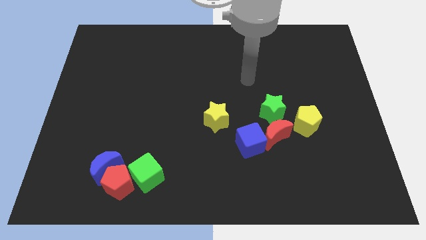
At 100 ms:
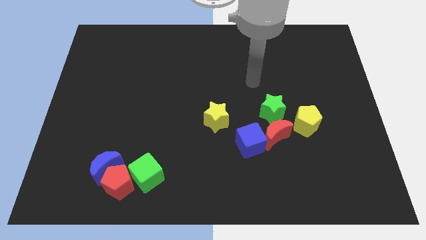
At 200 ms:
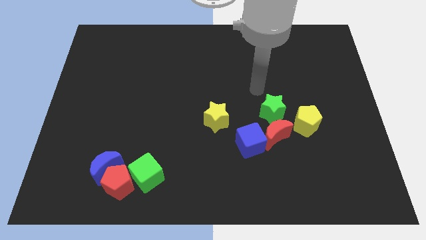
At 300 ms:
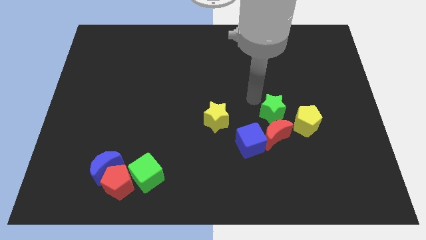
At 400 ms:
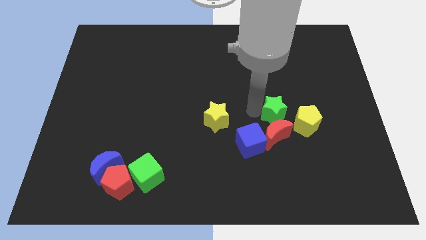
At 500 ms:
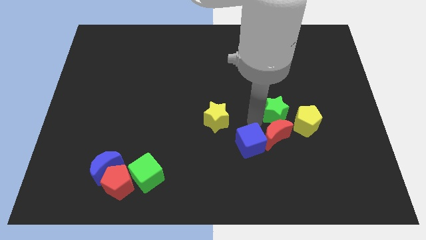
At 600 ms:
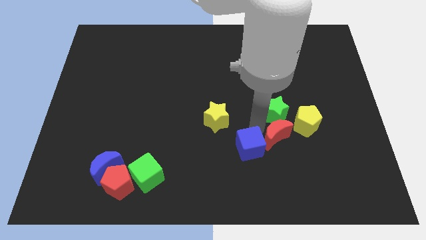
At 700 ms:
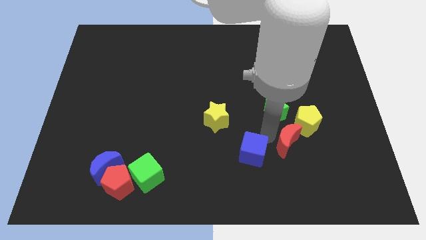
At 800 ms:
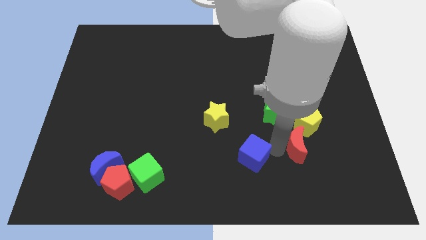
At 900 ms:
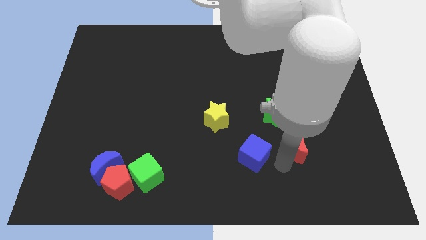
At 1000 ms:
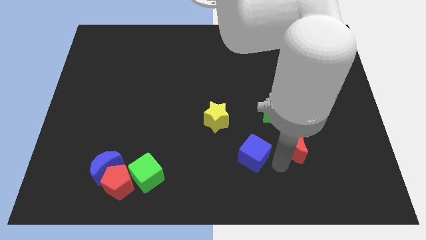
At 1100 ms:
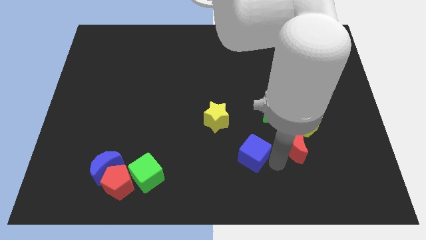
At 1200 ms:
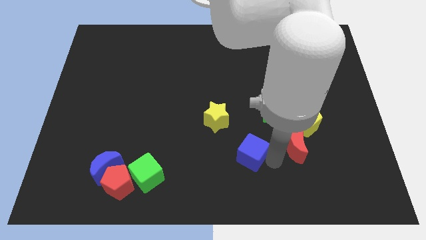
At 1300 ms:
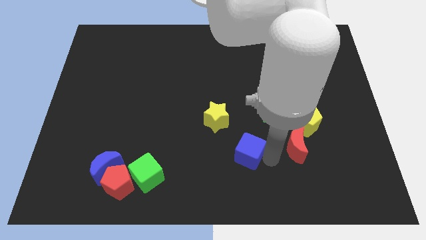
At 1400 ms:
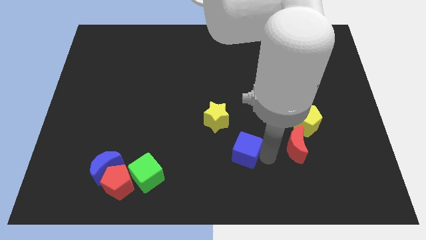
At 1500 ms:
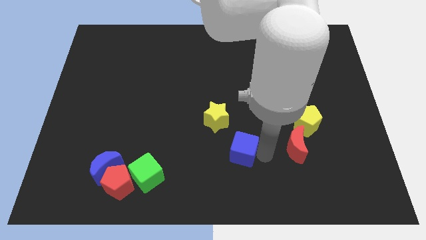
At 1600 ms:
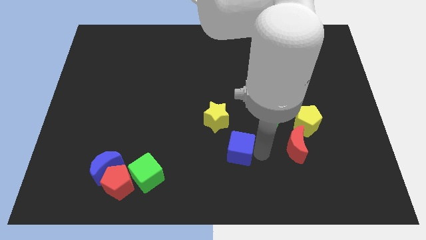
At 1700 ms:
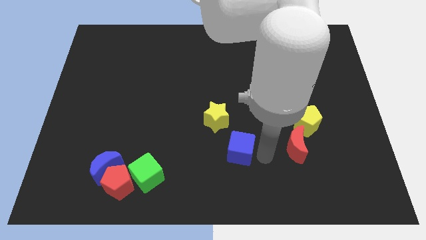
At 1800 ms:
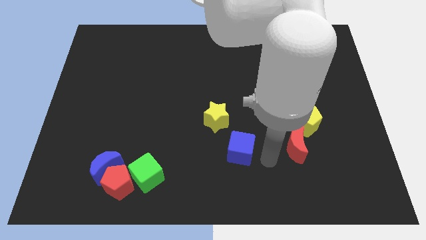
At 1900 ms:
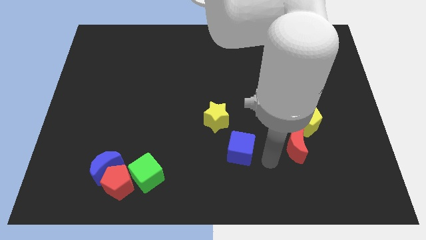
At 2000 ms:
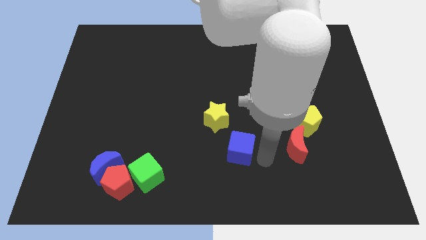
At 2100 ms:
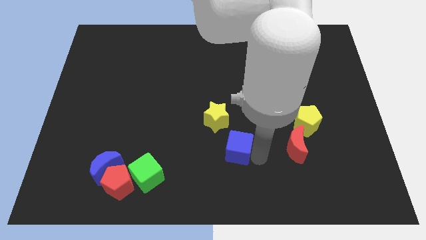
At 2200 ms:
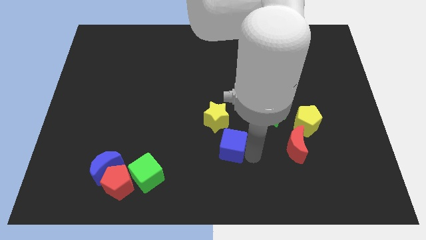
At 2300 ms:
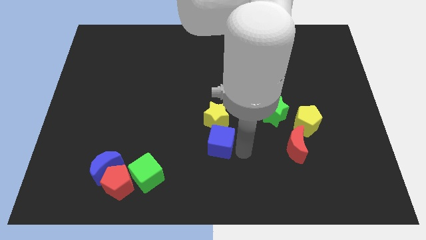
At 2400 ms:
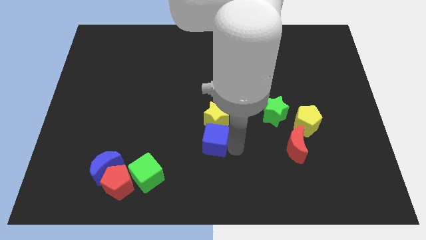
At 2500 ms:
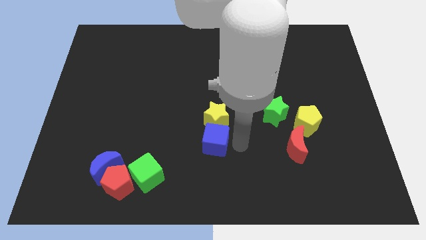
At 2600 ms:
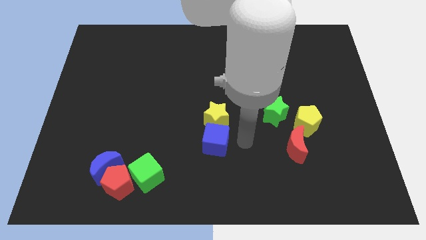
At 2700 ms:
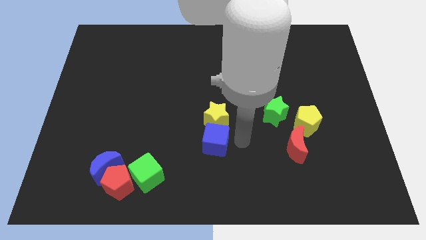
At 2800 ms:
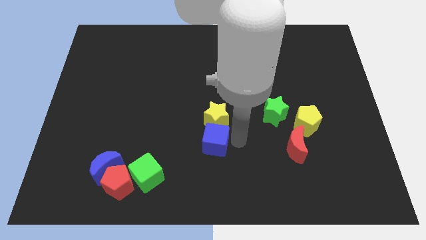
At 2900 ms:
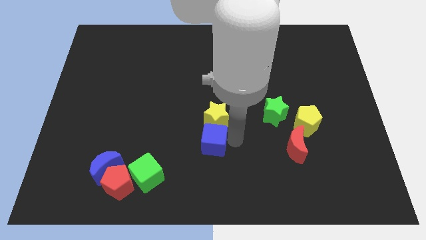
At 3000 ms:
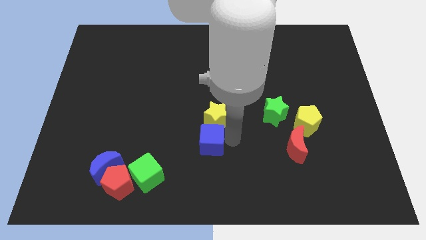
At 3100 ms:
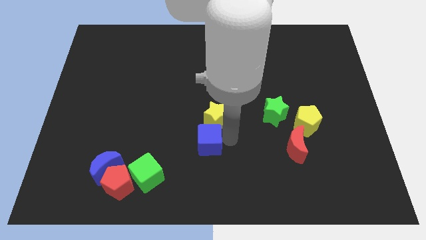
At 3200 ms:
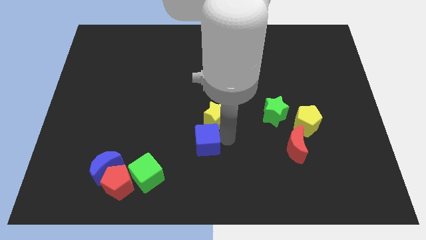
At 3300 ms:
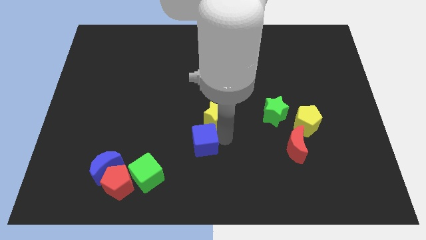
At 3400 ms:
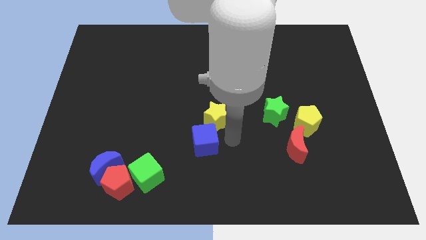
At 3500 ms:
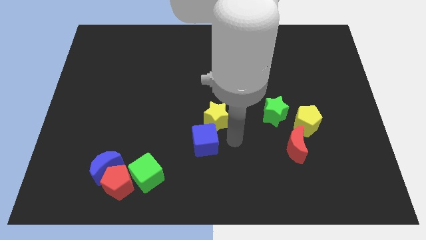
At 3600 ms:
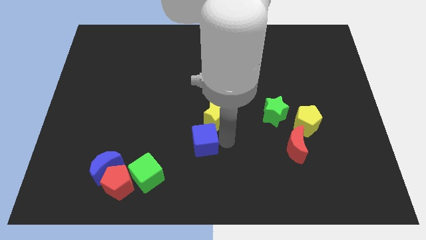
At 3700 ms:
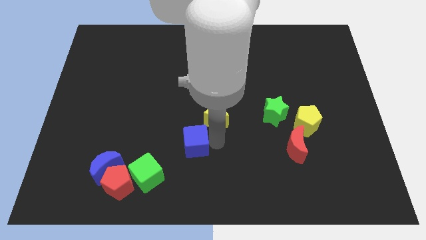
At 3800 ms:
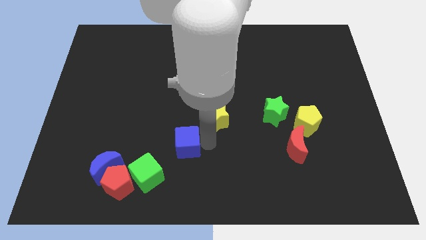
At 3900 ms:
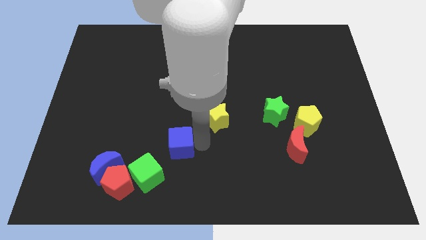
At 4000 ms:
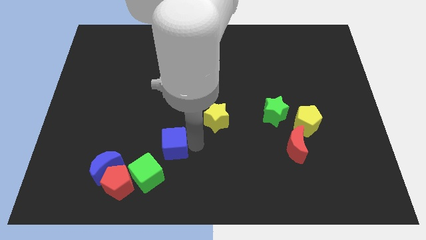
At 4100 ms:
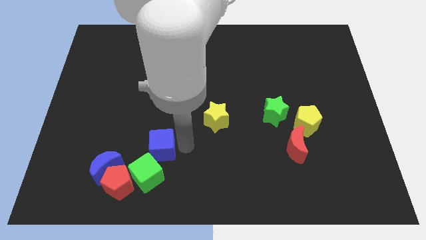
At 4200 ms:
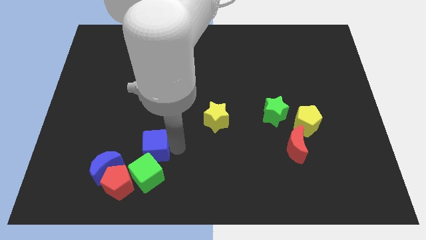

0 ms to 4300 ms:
move the blue cube left

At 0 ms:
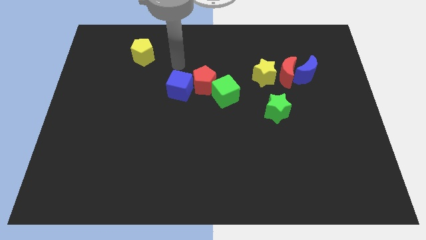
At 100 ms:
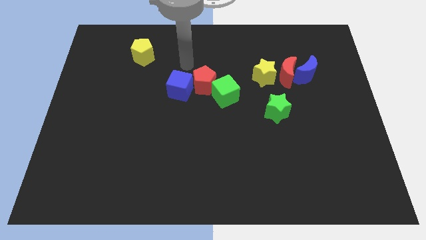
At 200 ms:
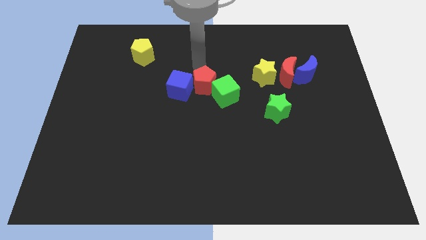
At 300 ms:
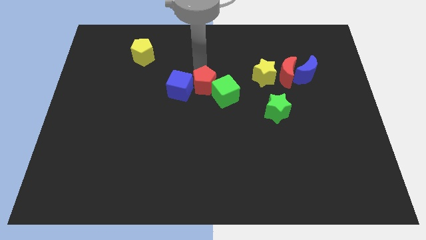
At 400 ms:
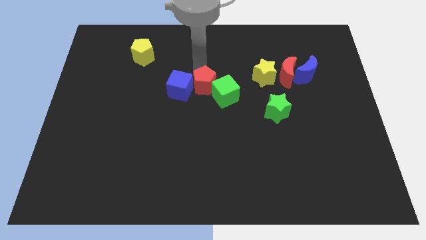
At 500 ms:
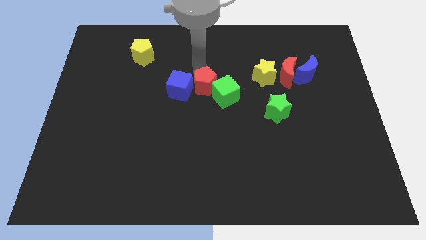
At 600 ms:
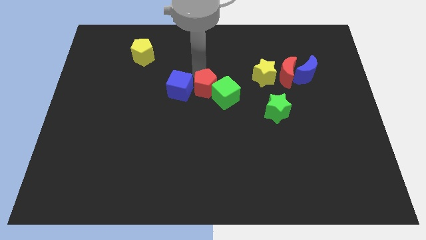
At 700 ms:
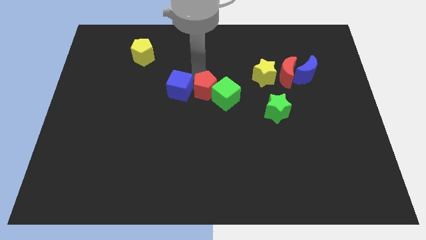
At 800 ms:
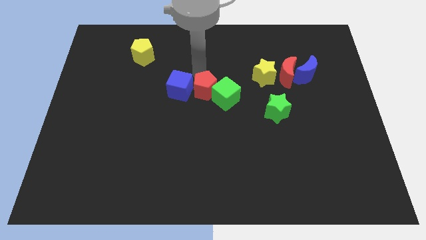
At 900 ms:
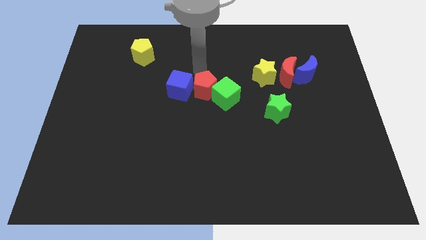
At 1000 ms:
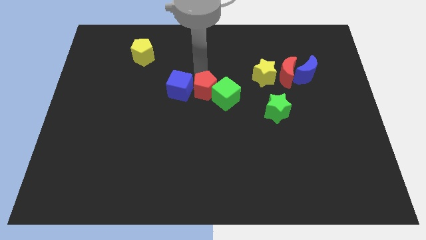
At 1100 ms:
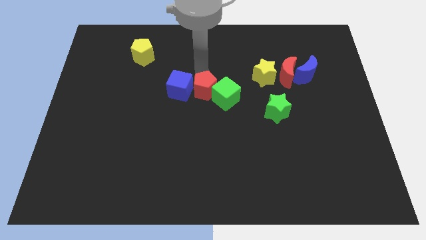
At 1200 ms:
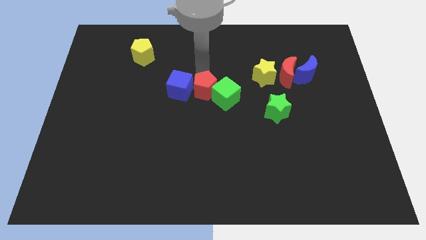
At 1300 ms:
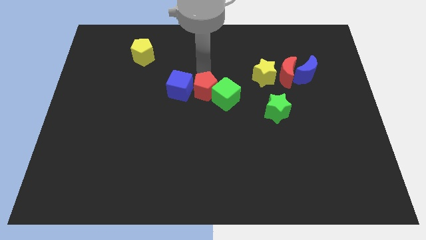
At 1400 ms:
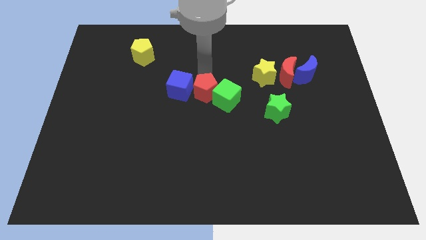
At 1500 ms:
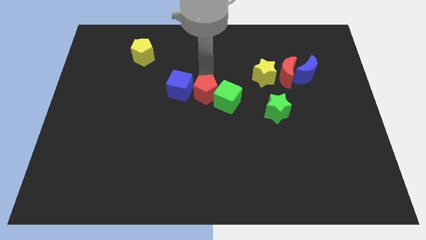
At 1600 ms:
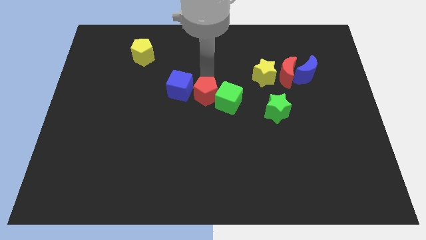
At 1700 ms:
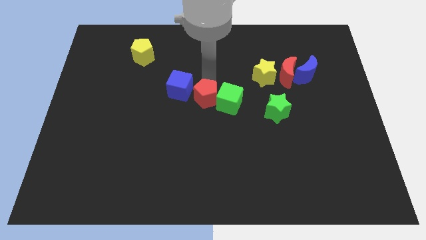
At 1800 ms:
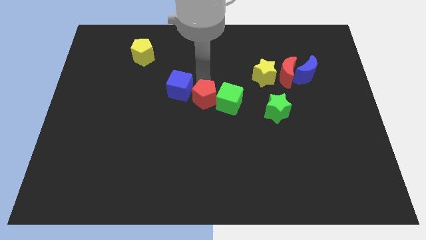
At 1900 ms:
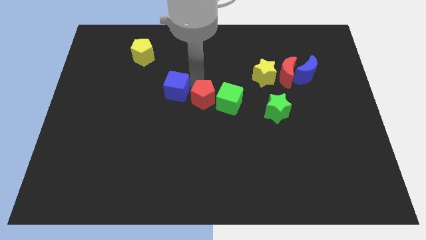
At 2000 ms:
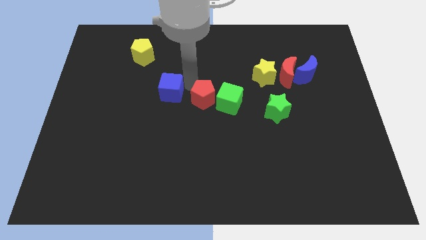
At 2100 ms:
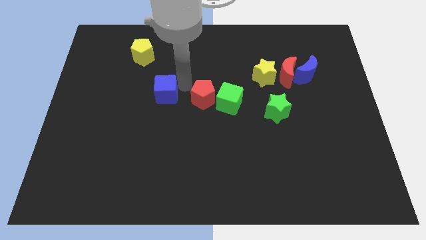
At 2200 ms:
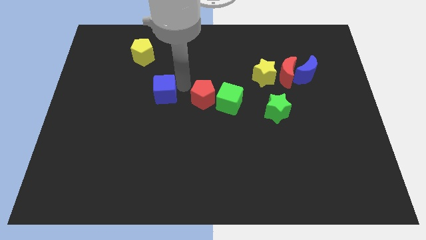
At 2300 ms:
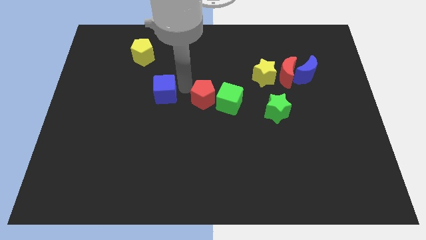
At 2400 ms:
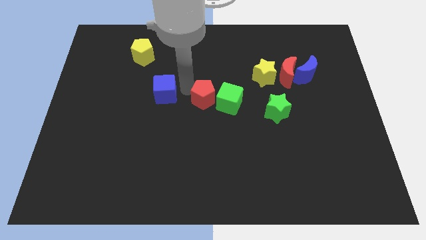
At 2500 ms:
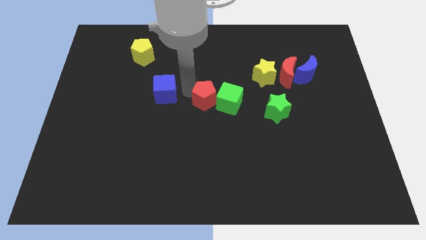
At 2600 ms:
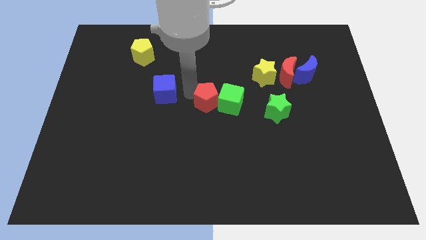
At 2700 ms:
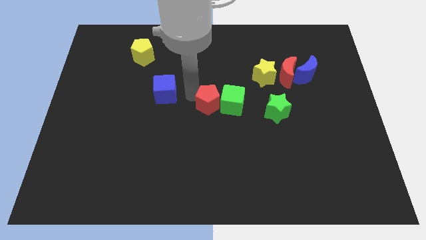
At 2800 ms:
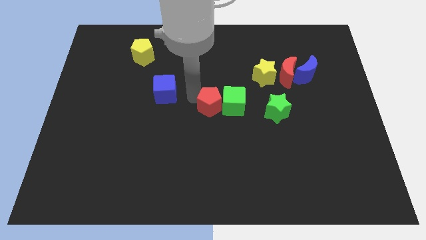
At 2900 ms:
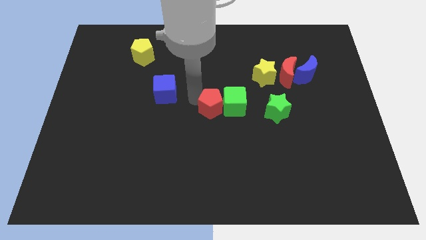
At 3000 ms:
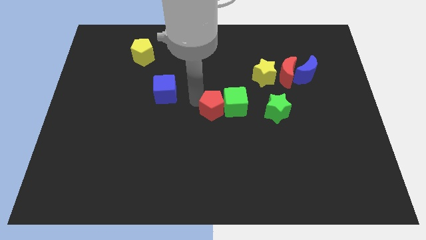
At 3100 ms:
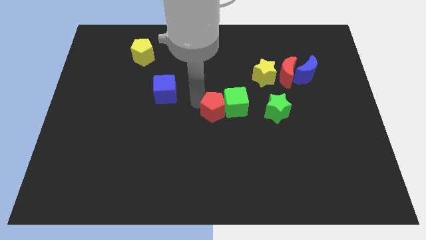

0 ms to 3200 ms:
slightly slide the red pentagon downwards and then to the right

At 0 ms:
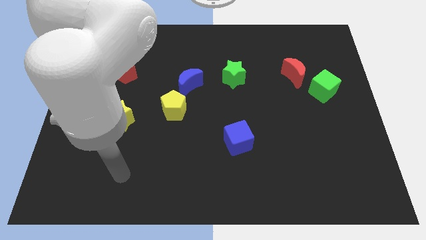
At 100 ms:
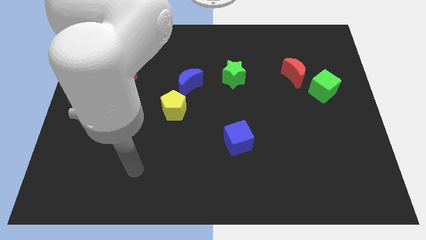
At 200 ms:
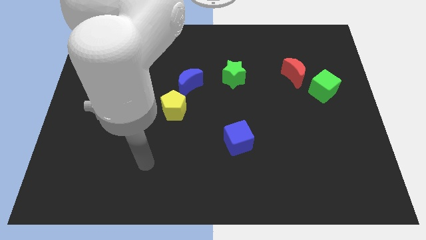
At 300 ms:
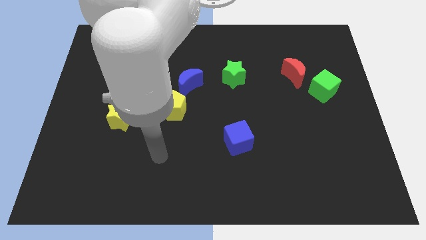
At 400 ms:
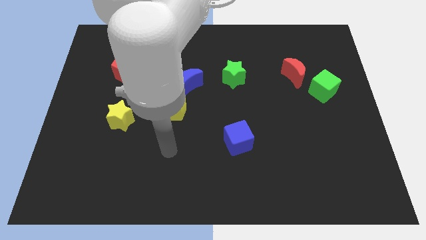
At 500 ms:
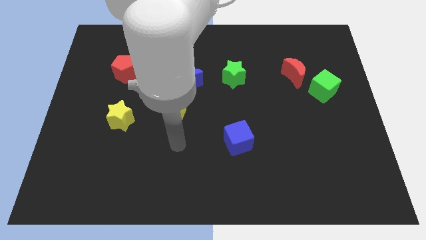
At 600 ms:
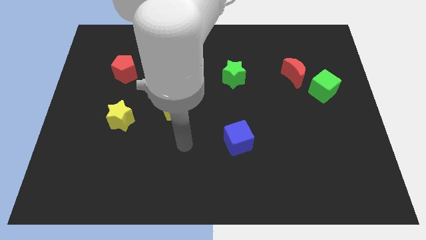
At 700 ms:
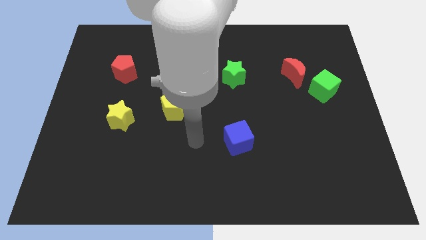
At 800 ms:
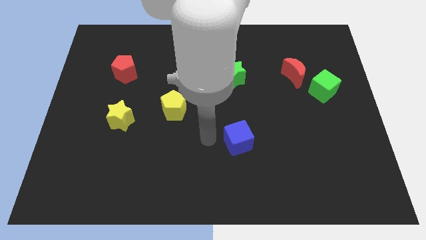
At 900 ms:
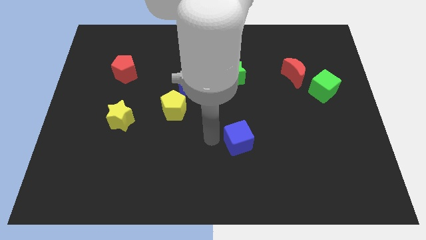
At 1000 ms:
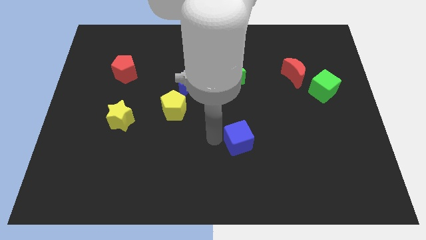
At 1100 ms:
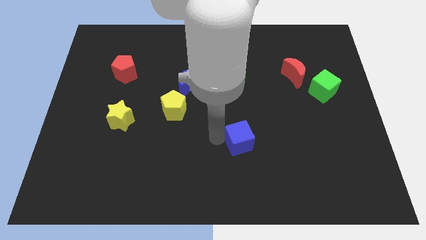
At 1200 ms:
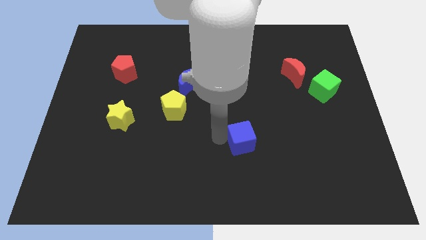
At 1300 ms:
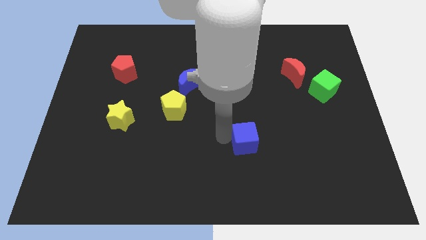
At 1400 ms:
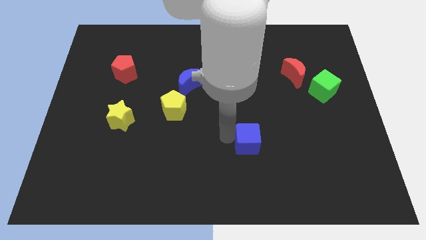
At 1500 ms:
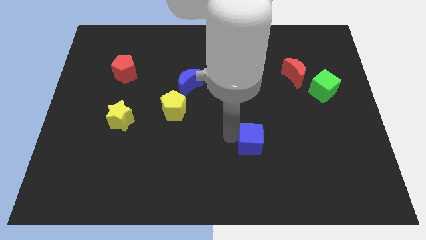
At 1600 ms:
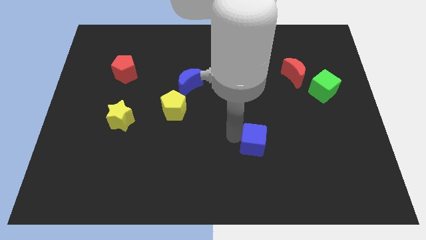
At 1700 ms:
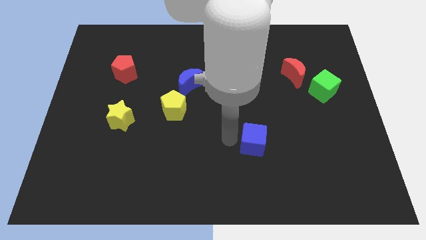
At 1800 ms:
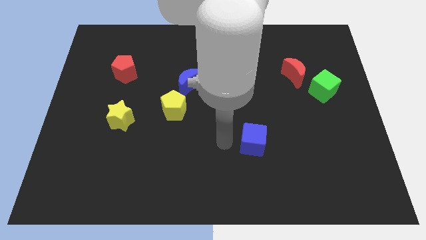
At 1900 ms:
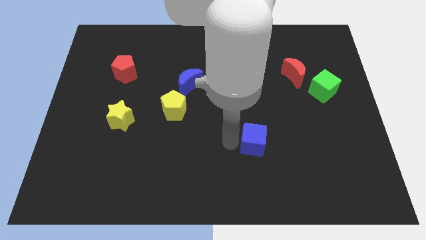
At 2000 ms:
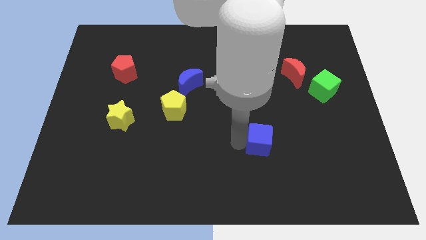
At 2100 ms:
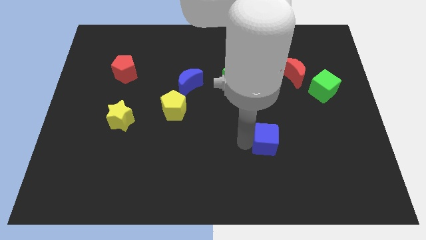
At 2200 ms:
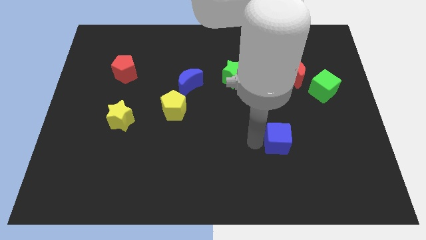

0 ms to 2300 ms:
move the blue cube right a little
